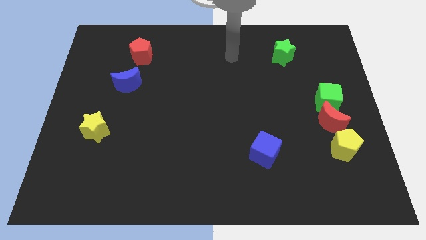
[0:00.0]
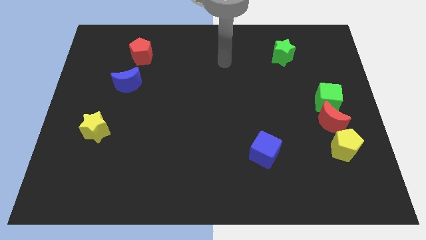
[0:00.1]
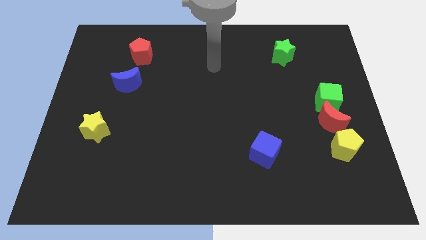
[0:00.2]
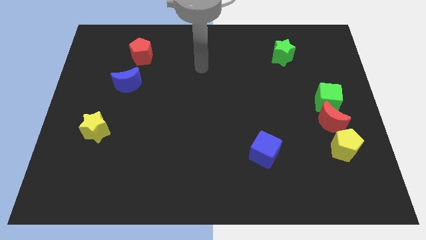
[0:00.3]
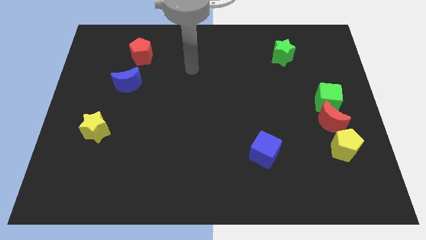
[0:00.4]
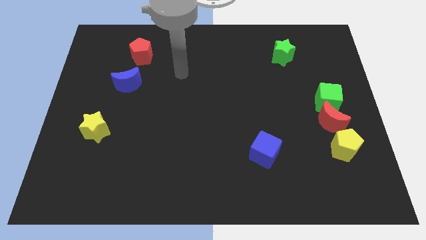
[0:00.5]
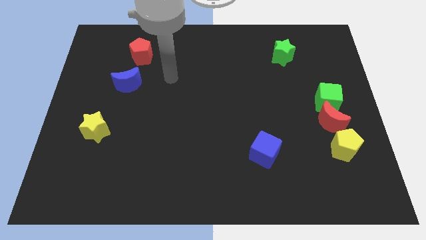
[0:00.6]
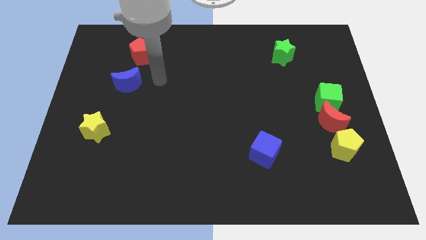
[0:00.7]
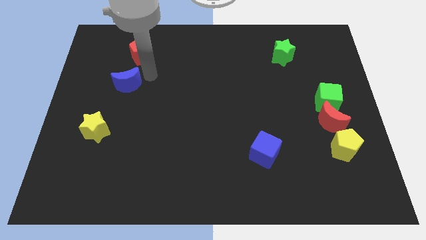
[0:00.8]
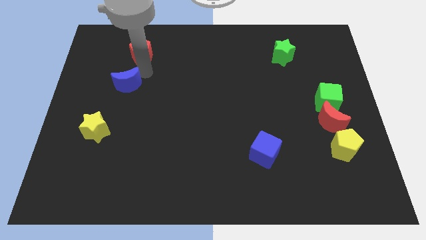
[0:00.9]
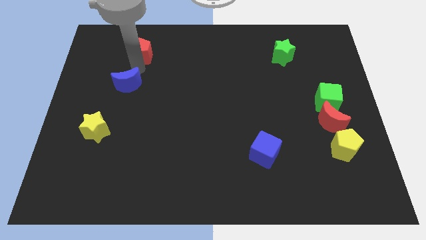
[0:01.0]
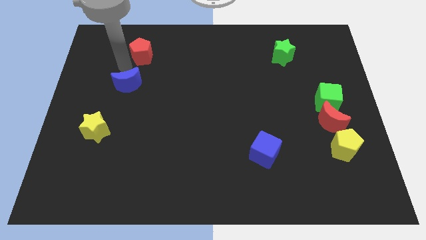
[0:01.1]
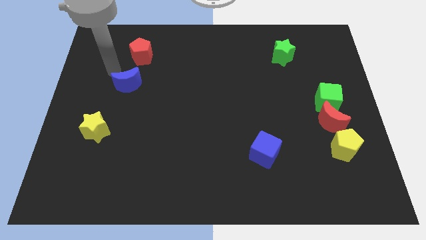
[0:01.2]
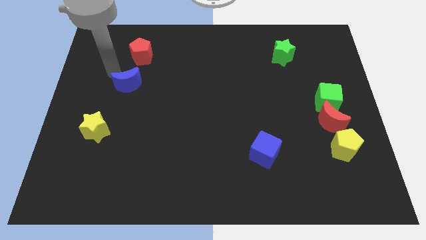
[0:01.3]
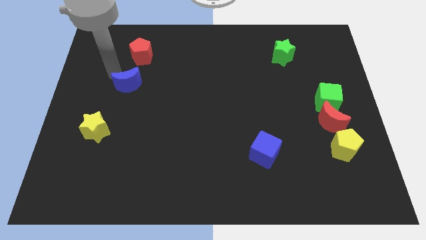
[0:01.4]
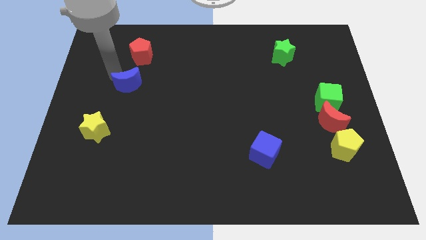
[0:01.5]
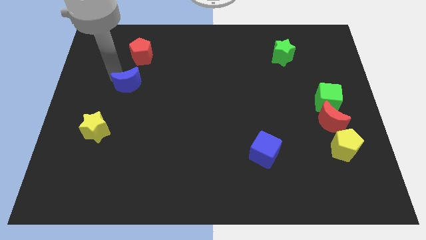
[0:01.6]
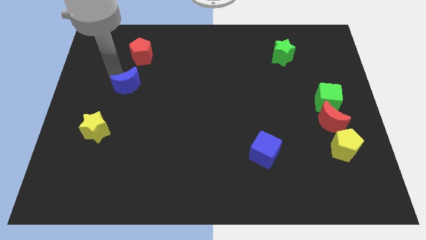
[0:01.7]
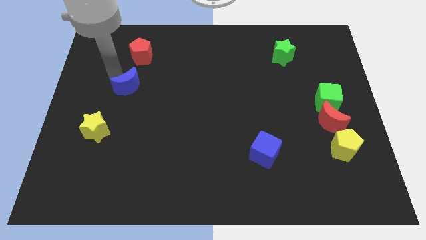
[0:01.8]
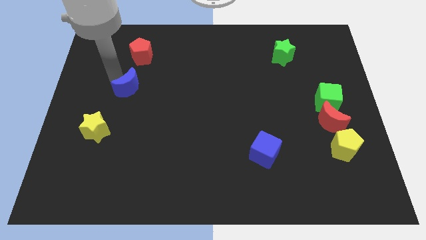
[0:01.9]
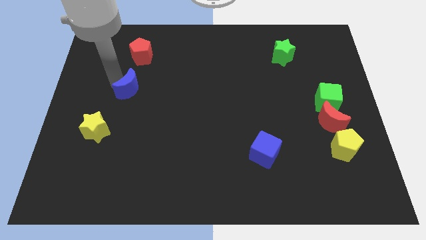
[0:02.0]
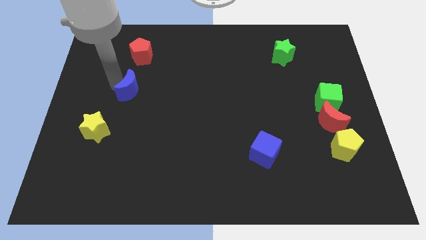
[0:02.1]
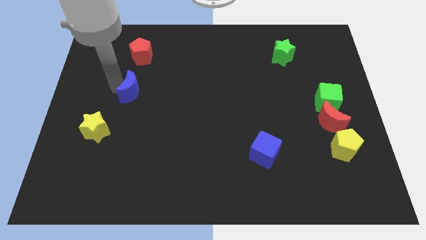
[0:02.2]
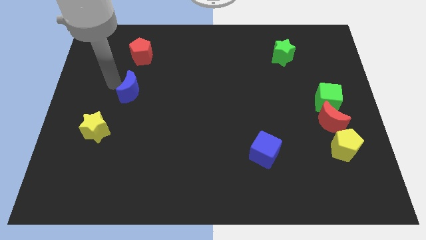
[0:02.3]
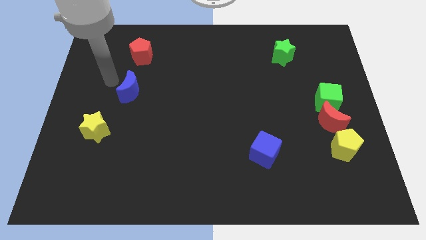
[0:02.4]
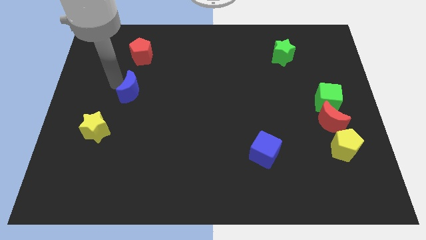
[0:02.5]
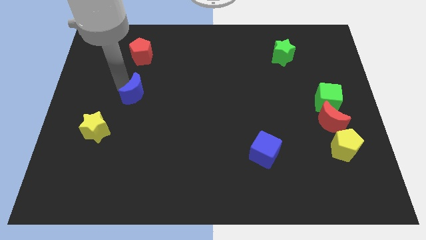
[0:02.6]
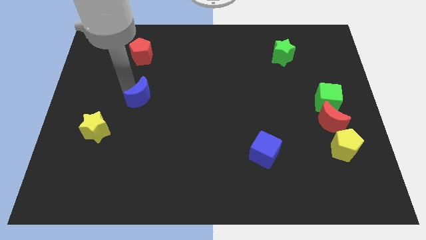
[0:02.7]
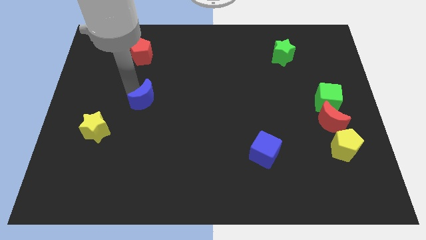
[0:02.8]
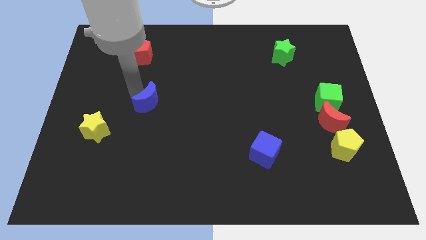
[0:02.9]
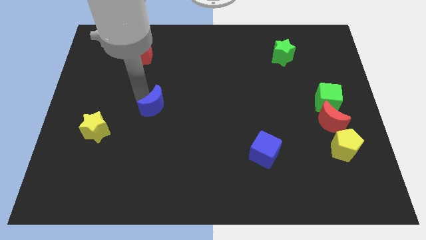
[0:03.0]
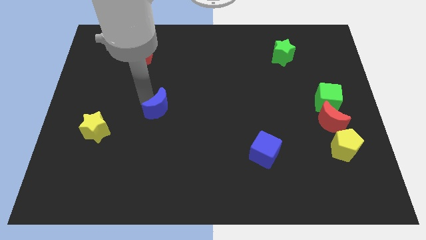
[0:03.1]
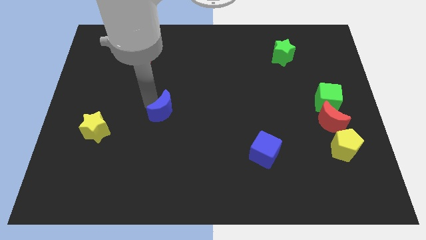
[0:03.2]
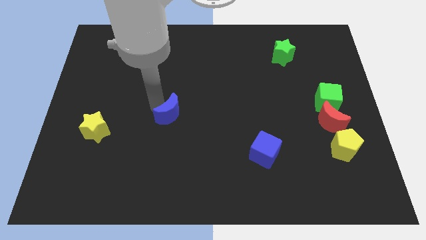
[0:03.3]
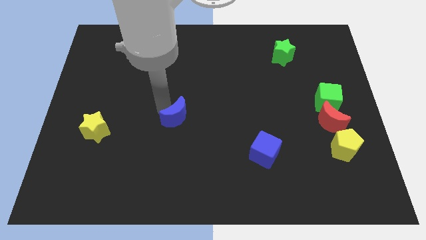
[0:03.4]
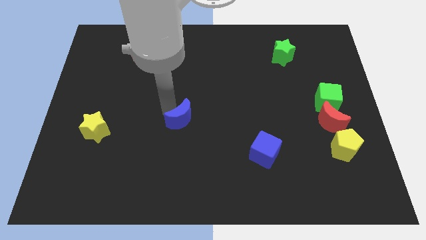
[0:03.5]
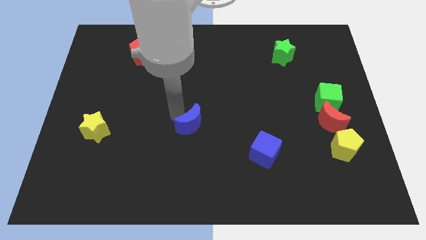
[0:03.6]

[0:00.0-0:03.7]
slide the blue moon diagonally down and to the right

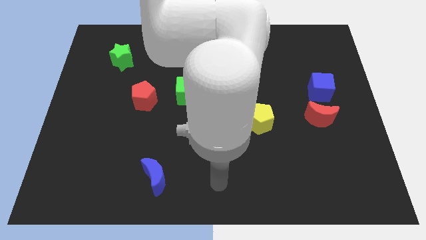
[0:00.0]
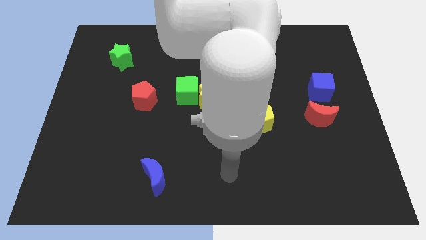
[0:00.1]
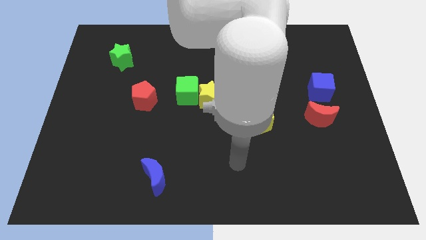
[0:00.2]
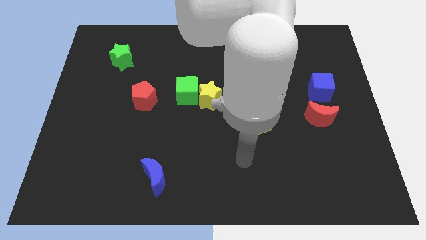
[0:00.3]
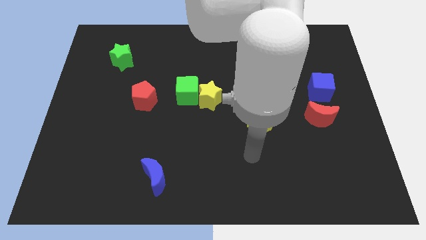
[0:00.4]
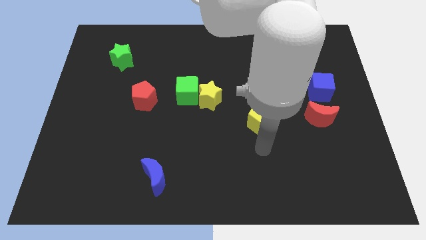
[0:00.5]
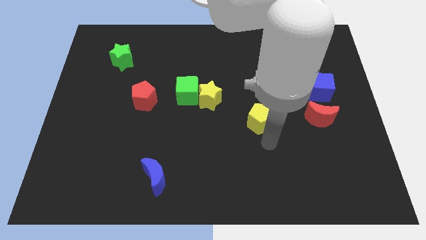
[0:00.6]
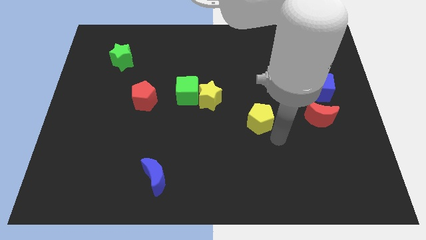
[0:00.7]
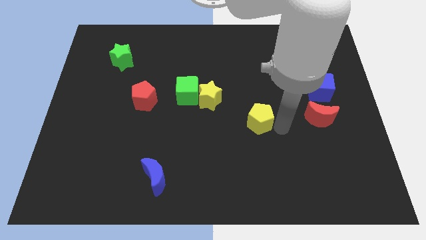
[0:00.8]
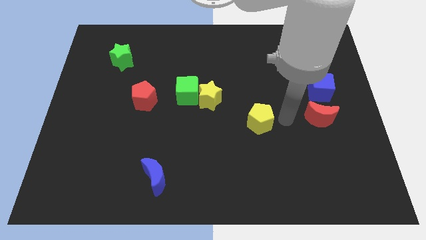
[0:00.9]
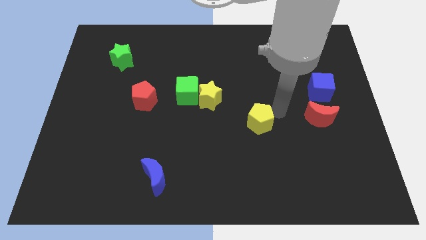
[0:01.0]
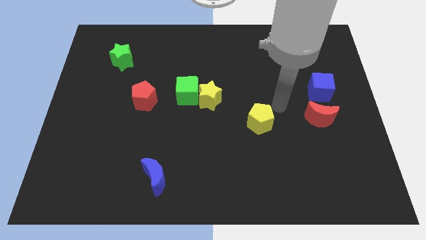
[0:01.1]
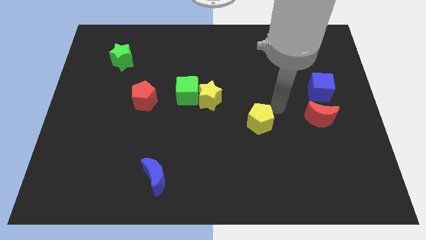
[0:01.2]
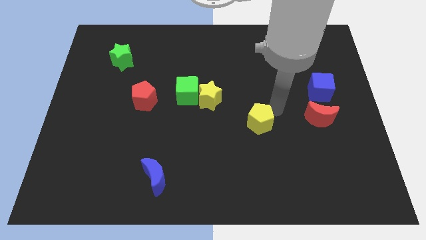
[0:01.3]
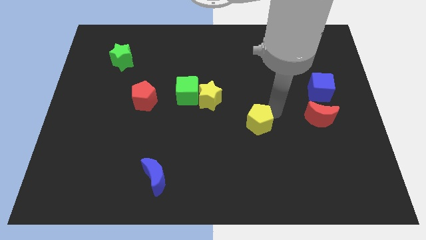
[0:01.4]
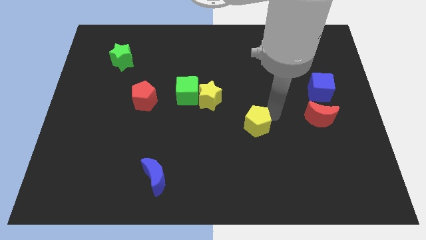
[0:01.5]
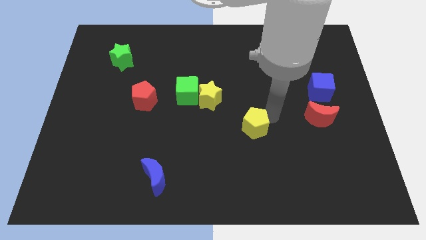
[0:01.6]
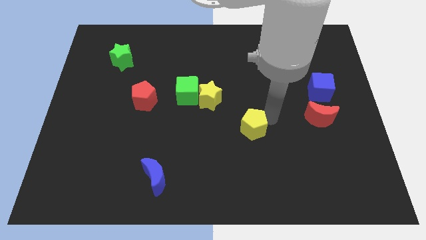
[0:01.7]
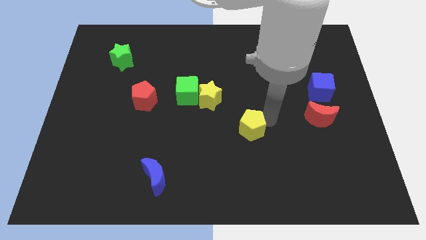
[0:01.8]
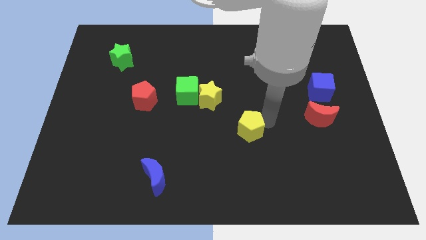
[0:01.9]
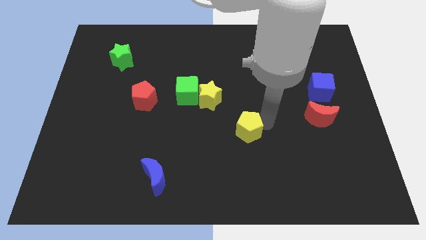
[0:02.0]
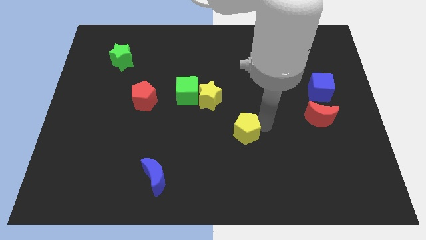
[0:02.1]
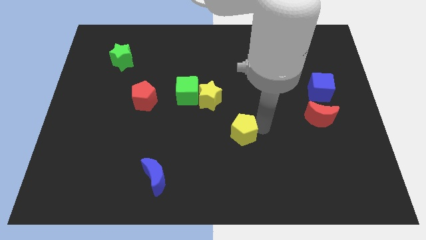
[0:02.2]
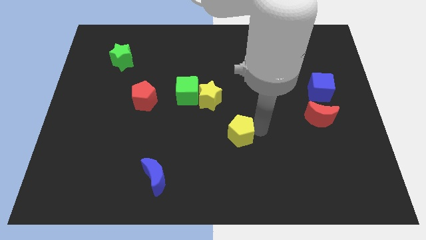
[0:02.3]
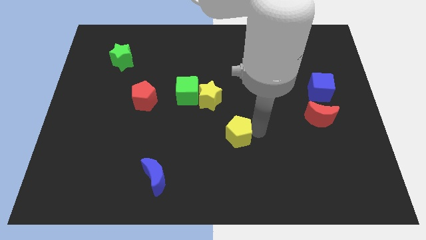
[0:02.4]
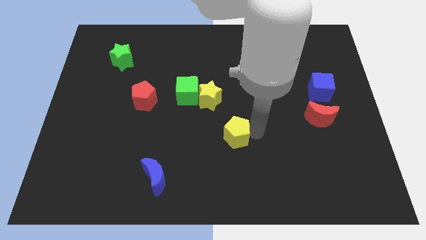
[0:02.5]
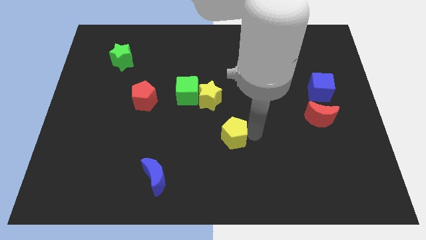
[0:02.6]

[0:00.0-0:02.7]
push the yellow pentagon a little bit downwards and then left

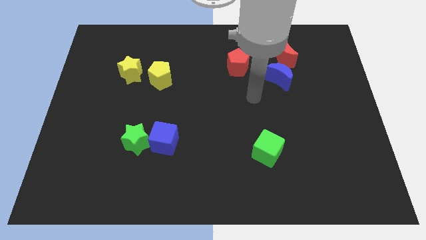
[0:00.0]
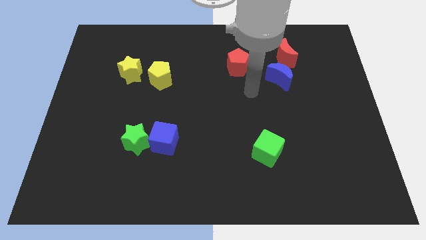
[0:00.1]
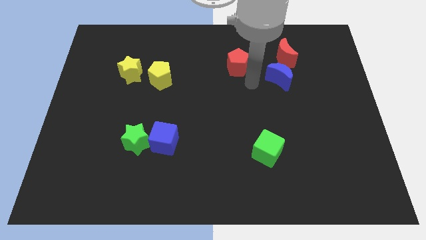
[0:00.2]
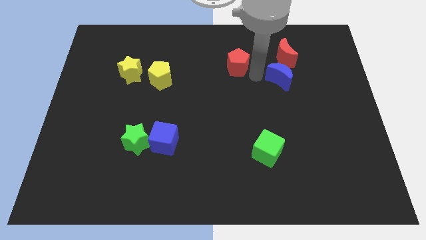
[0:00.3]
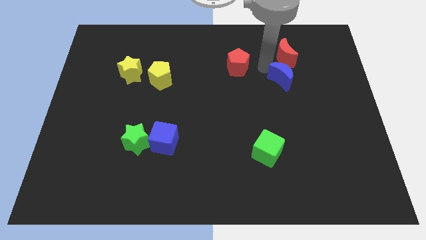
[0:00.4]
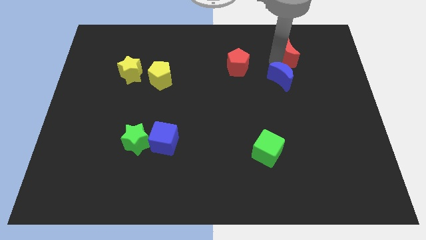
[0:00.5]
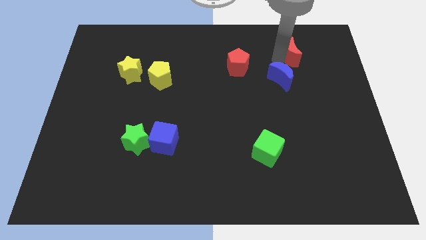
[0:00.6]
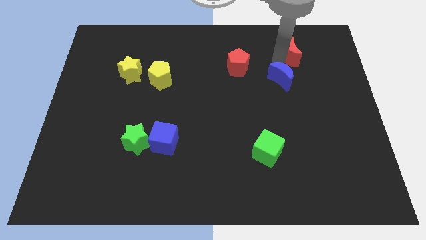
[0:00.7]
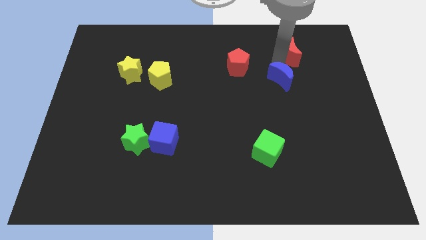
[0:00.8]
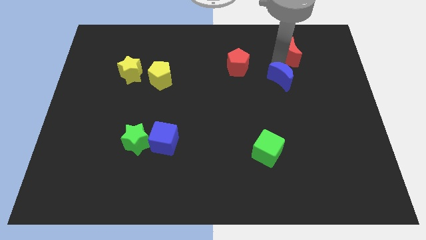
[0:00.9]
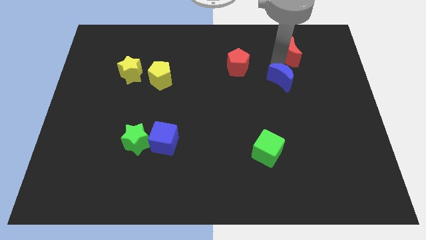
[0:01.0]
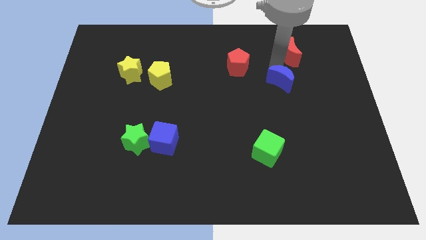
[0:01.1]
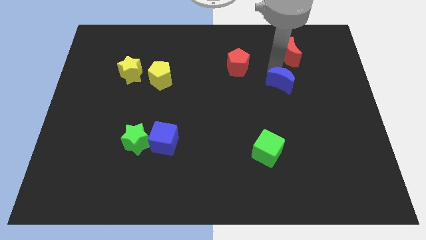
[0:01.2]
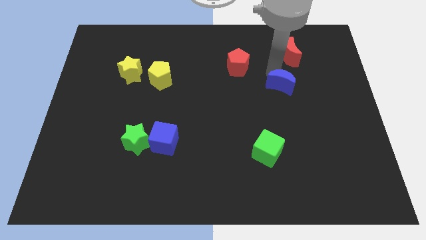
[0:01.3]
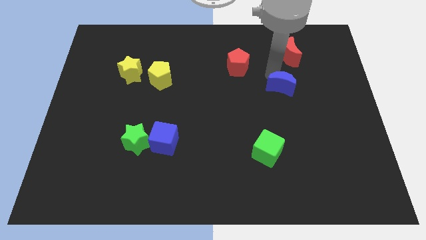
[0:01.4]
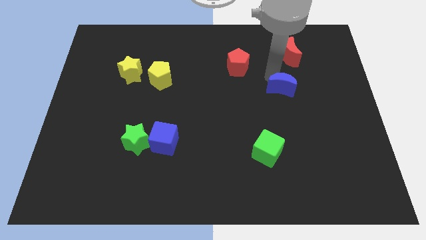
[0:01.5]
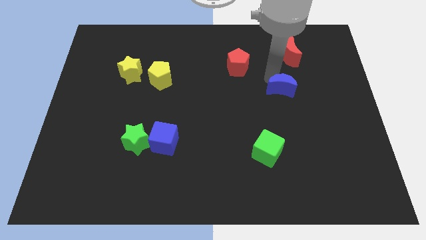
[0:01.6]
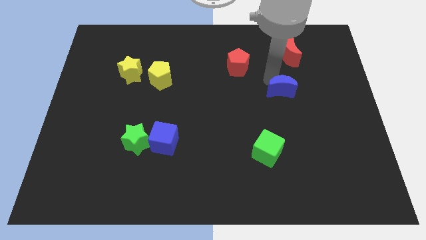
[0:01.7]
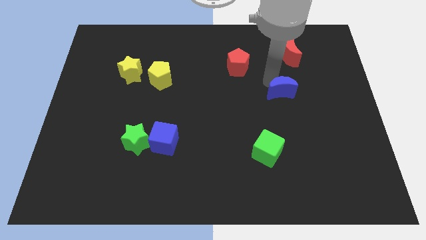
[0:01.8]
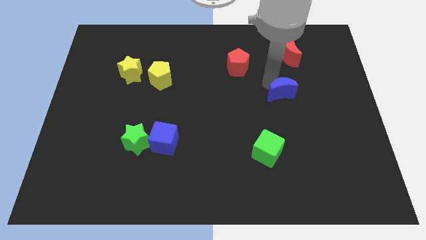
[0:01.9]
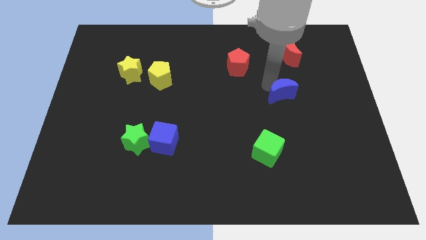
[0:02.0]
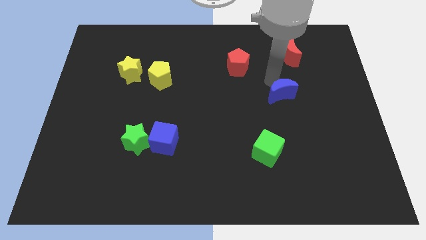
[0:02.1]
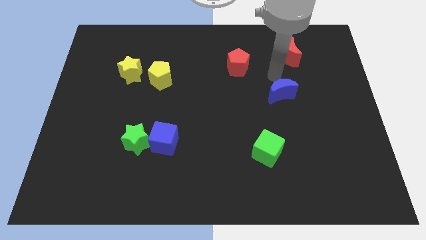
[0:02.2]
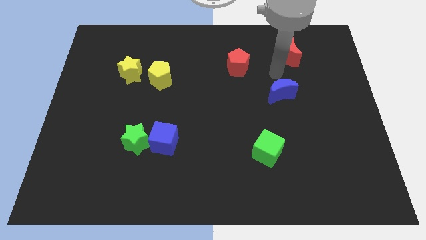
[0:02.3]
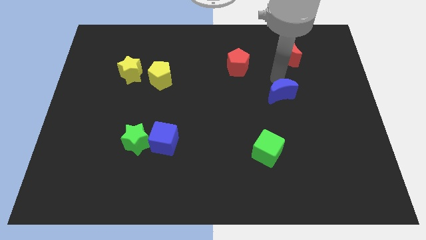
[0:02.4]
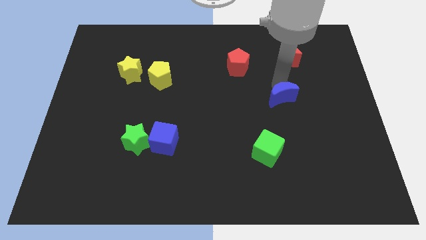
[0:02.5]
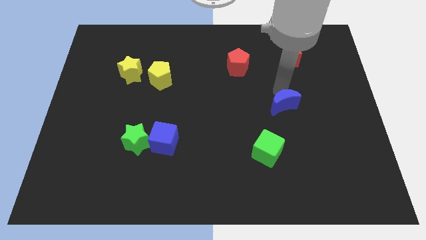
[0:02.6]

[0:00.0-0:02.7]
push the blue moon slightly downwards
